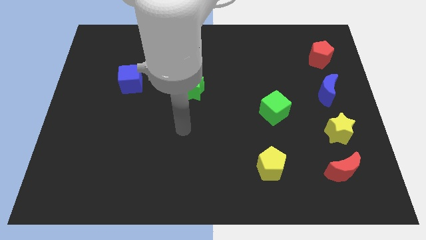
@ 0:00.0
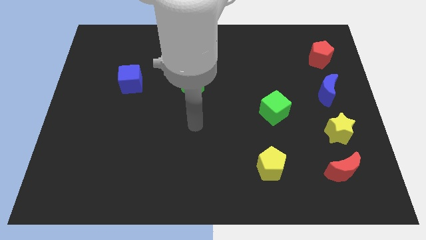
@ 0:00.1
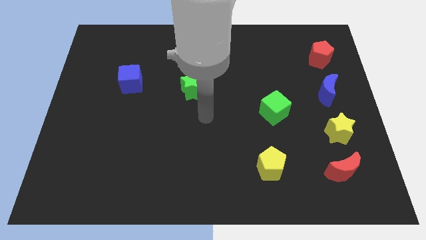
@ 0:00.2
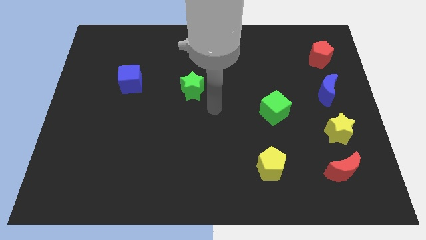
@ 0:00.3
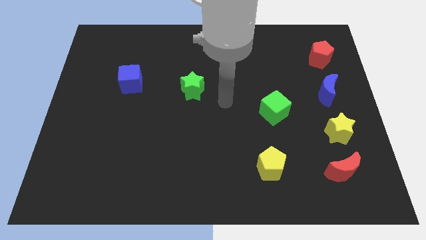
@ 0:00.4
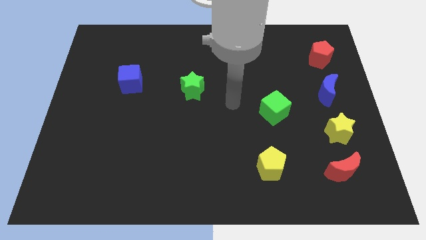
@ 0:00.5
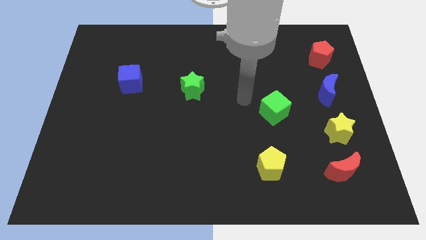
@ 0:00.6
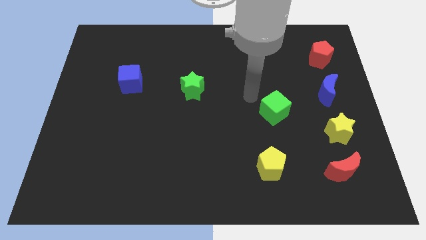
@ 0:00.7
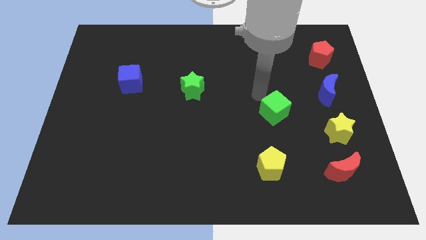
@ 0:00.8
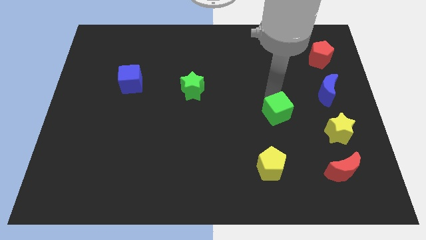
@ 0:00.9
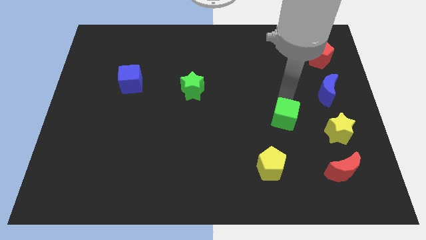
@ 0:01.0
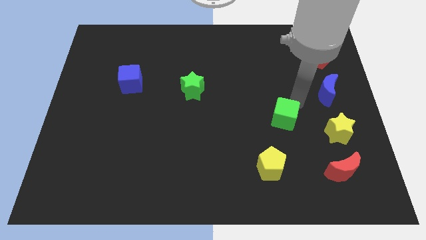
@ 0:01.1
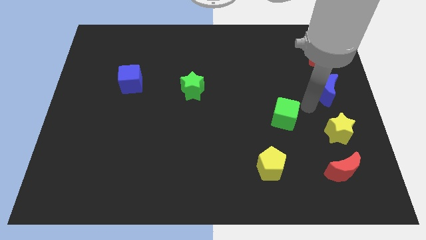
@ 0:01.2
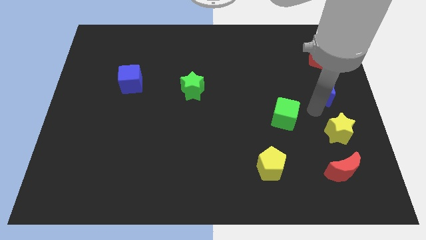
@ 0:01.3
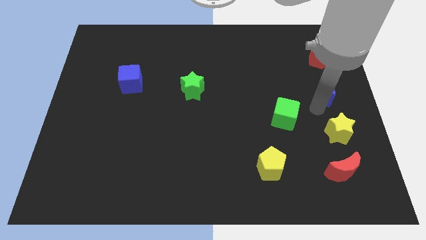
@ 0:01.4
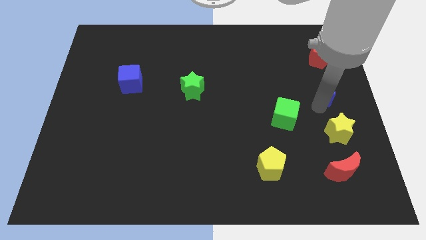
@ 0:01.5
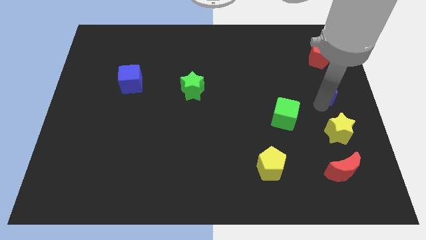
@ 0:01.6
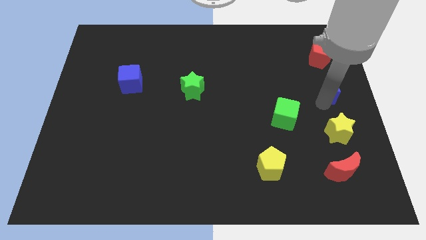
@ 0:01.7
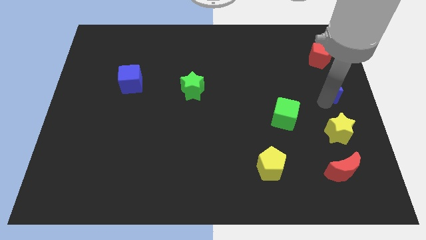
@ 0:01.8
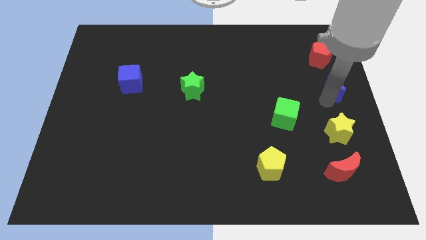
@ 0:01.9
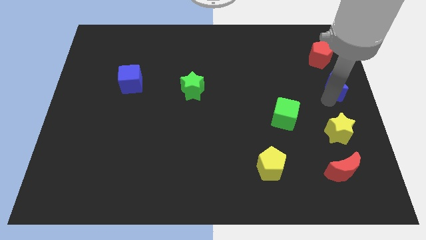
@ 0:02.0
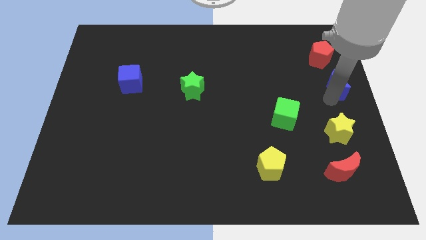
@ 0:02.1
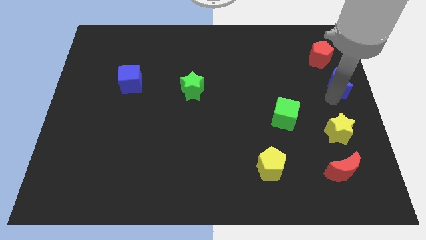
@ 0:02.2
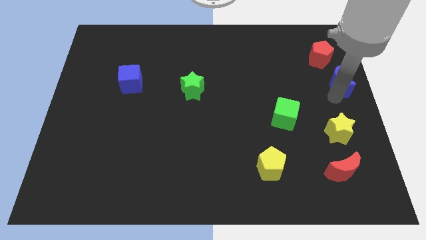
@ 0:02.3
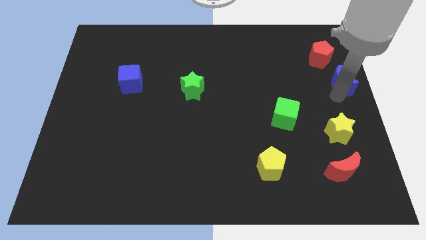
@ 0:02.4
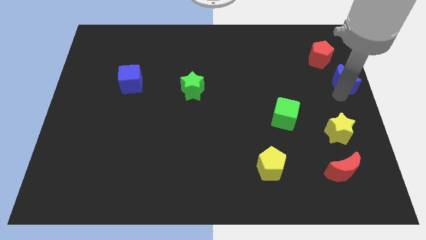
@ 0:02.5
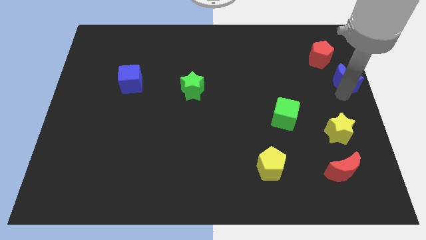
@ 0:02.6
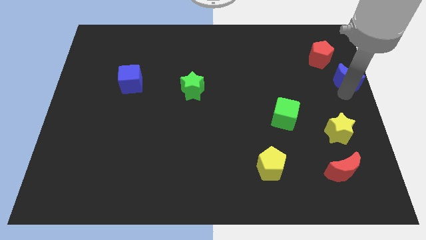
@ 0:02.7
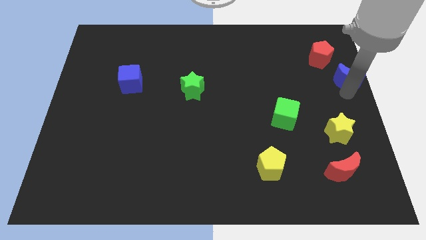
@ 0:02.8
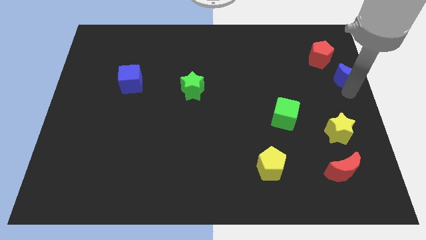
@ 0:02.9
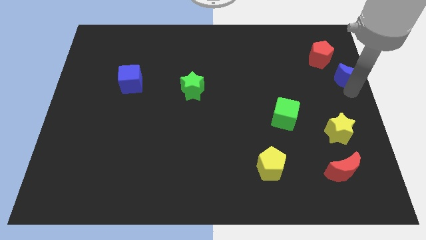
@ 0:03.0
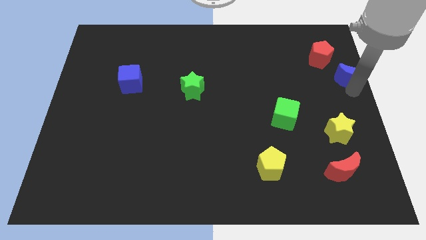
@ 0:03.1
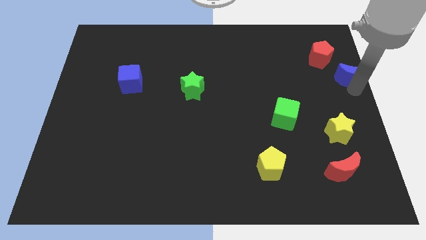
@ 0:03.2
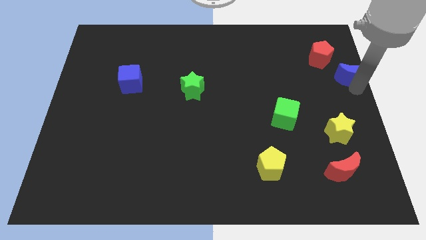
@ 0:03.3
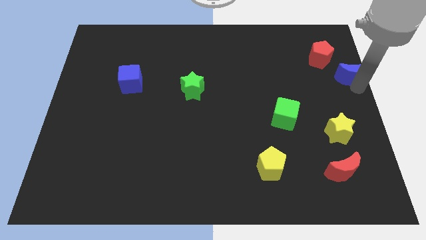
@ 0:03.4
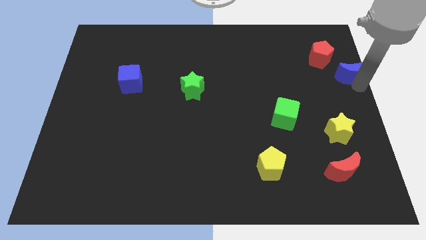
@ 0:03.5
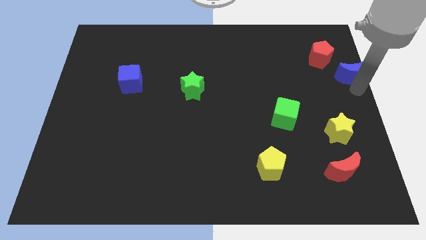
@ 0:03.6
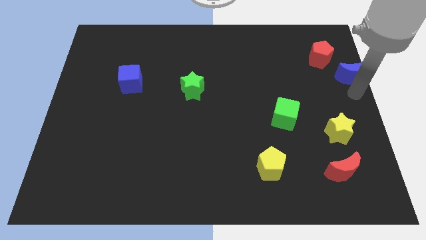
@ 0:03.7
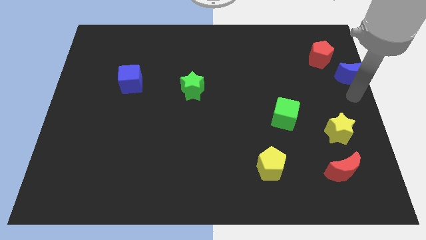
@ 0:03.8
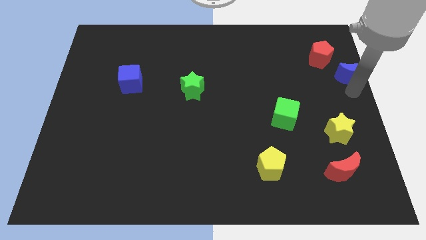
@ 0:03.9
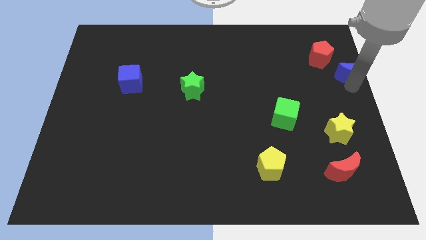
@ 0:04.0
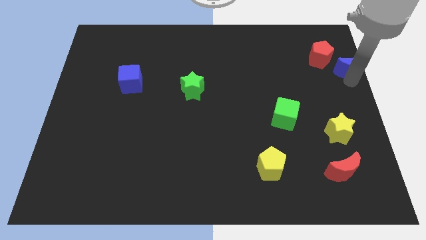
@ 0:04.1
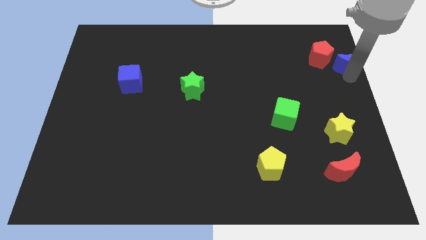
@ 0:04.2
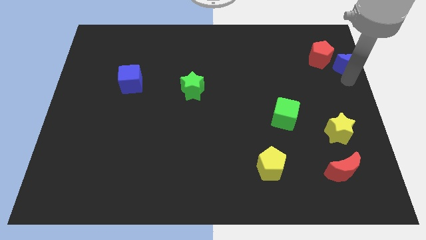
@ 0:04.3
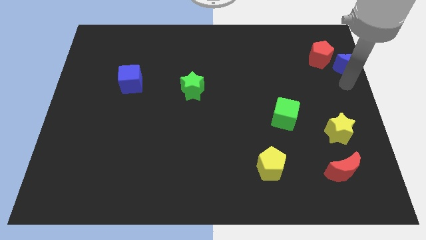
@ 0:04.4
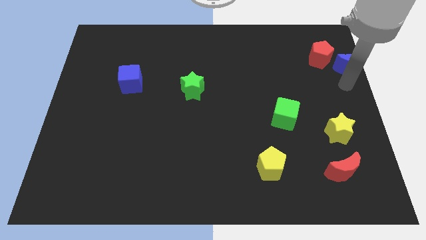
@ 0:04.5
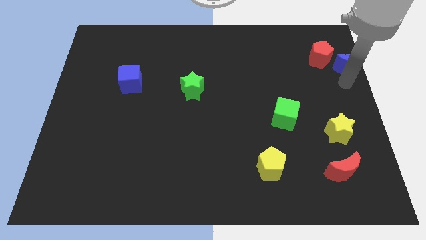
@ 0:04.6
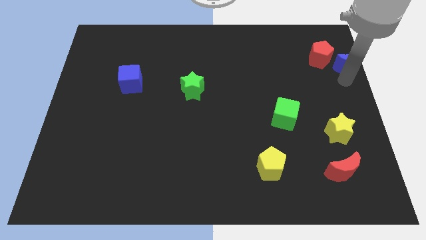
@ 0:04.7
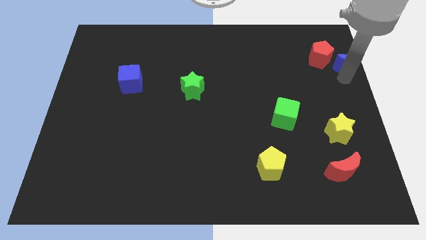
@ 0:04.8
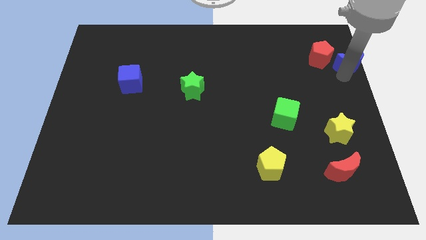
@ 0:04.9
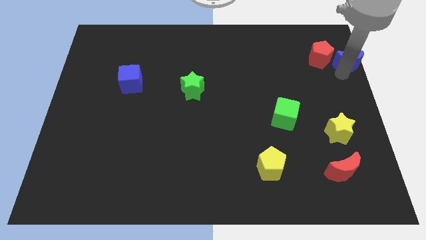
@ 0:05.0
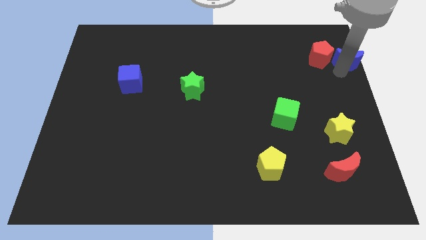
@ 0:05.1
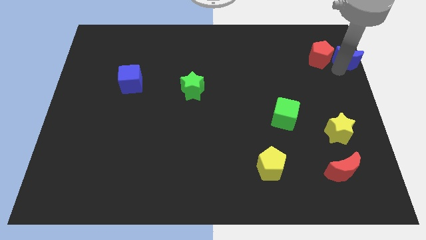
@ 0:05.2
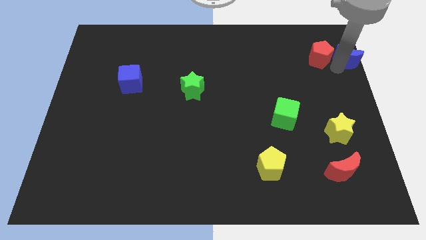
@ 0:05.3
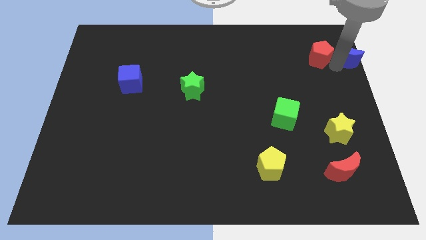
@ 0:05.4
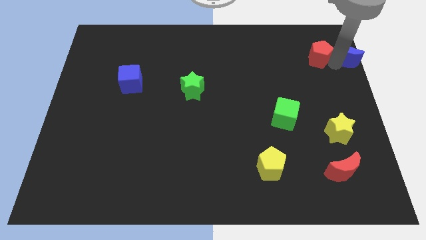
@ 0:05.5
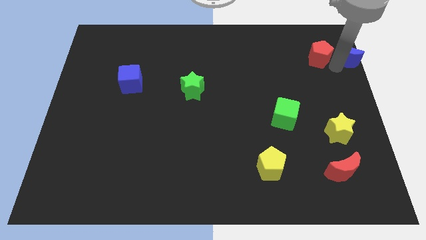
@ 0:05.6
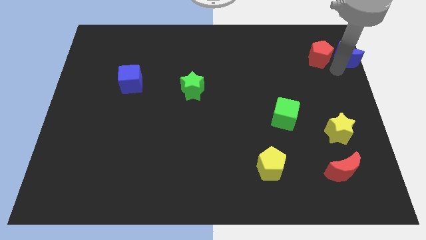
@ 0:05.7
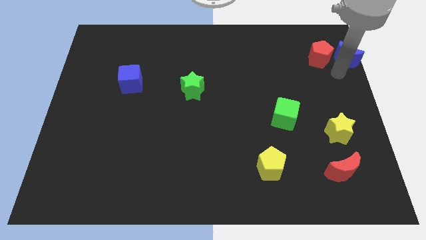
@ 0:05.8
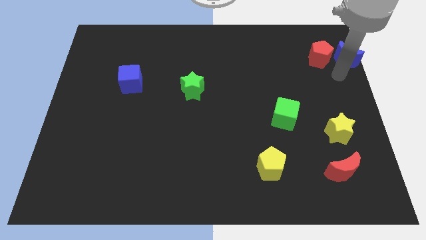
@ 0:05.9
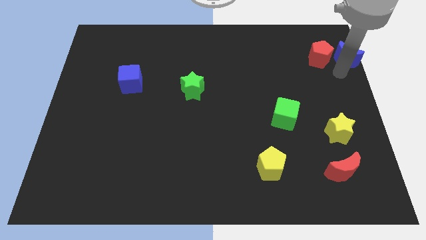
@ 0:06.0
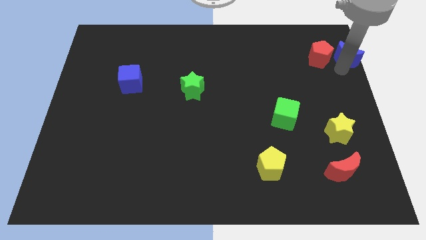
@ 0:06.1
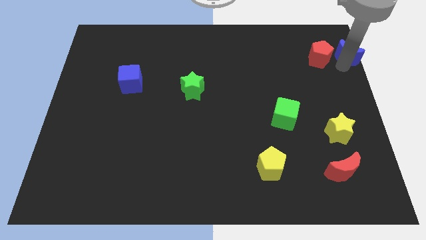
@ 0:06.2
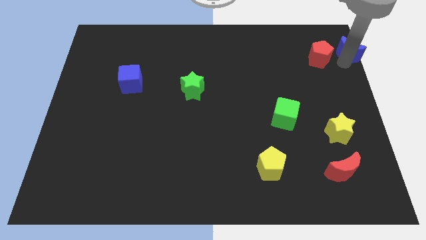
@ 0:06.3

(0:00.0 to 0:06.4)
put the blue moon to the top right corner
